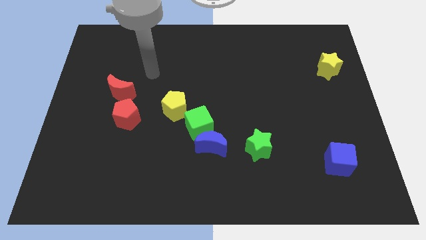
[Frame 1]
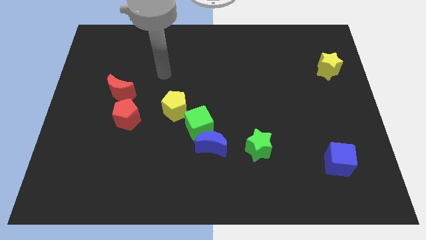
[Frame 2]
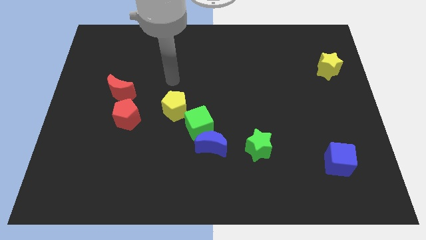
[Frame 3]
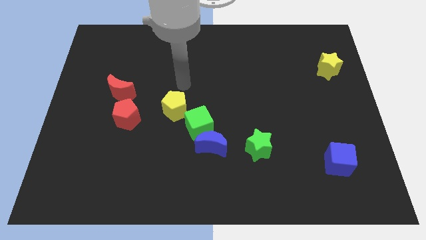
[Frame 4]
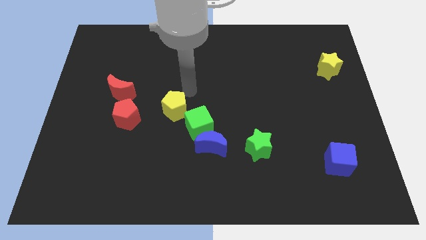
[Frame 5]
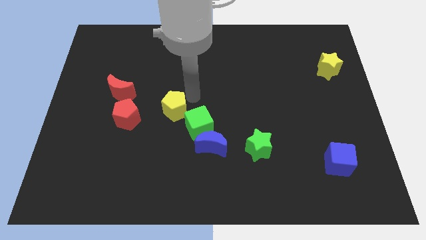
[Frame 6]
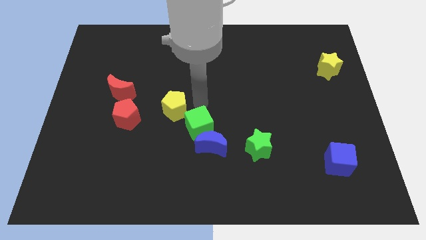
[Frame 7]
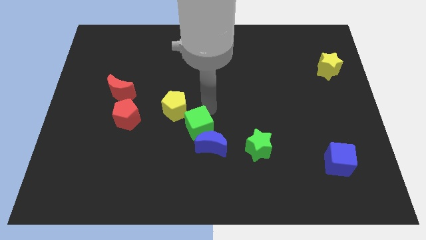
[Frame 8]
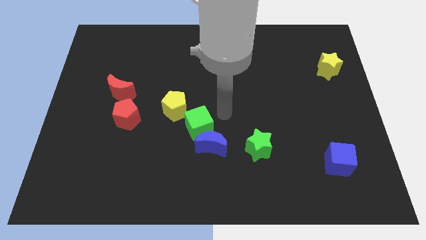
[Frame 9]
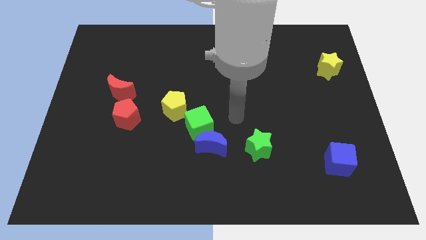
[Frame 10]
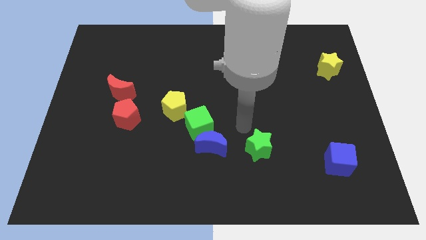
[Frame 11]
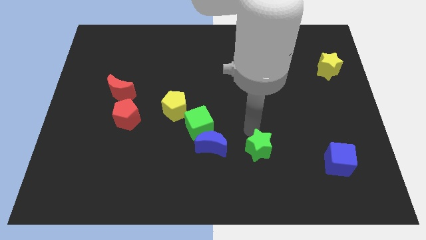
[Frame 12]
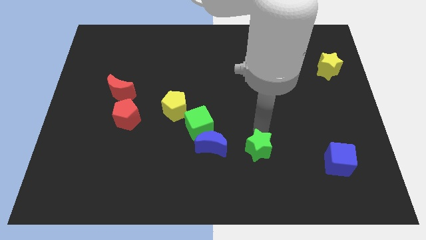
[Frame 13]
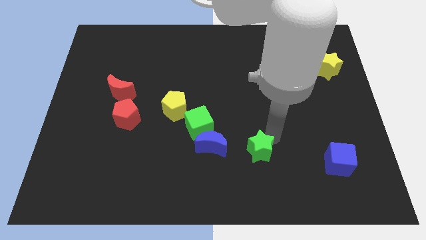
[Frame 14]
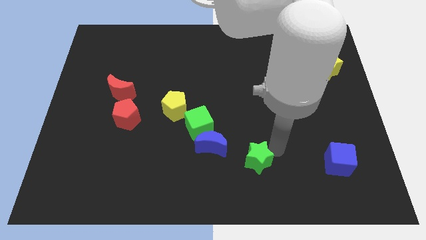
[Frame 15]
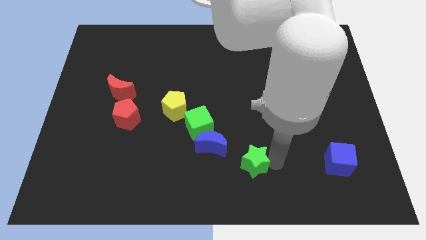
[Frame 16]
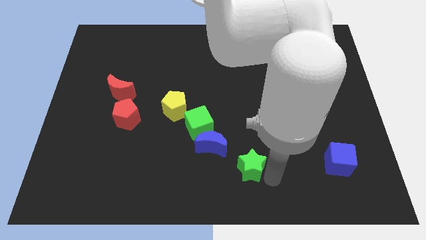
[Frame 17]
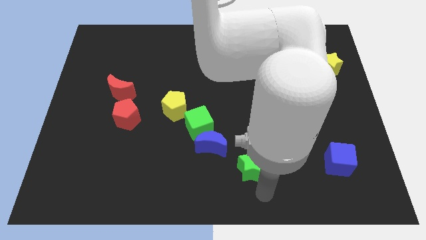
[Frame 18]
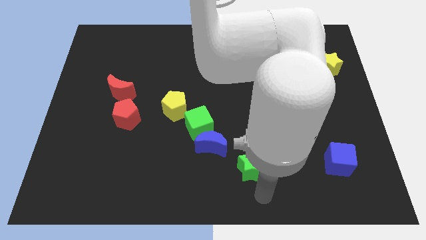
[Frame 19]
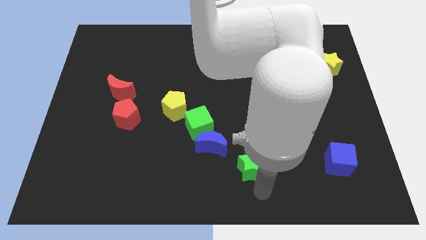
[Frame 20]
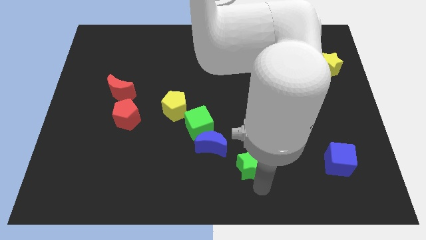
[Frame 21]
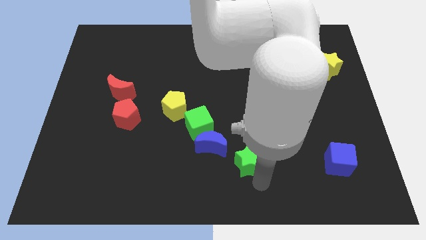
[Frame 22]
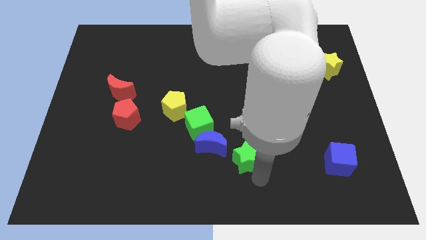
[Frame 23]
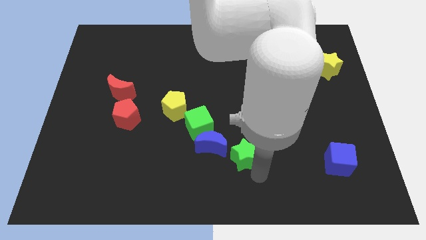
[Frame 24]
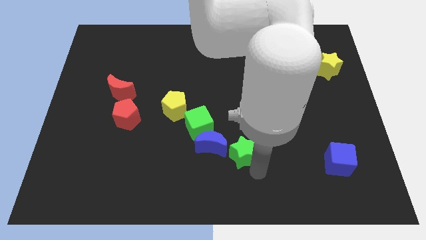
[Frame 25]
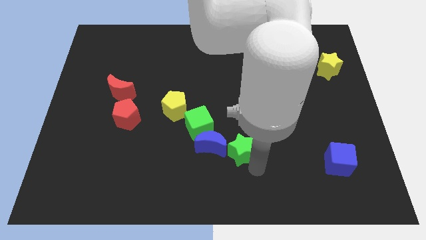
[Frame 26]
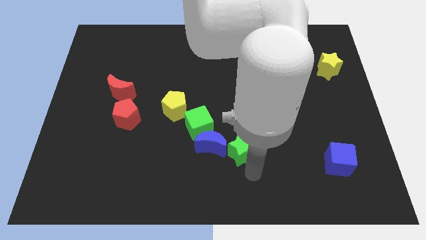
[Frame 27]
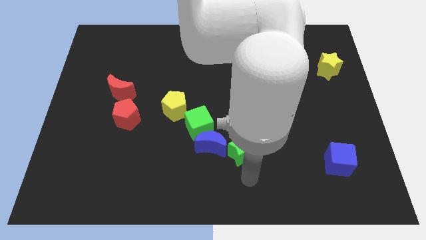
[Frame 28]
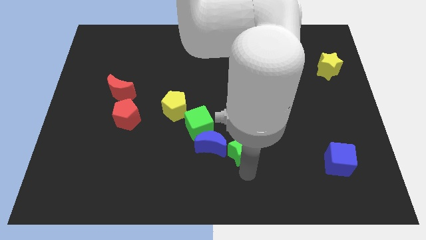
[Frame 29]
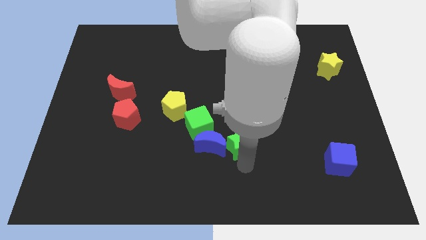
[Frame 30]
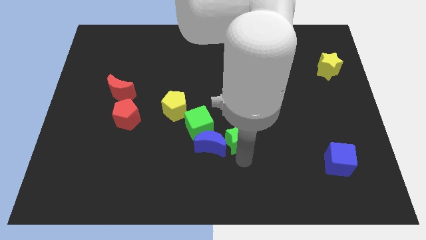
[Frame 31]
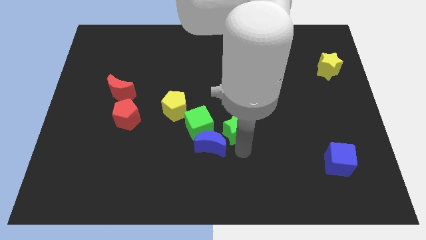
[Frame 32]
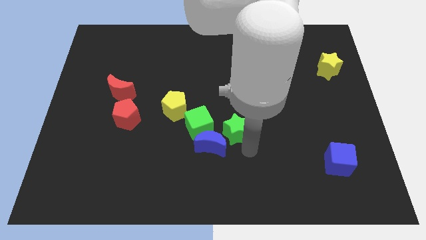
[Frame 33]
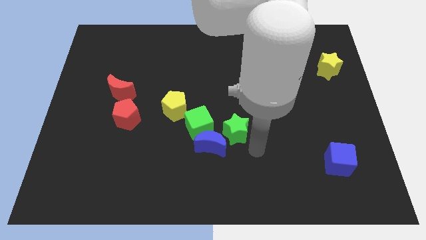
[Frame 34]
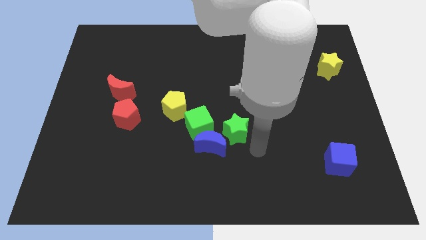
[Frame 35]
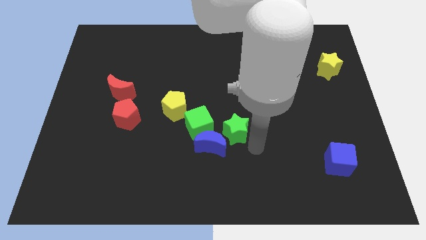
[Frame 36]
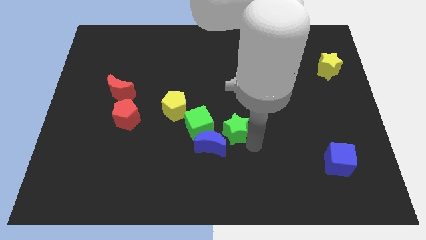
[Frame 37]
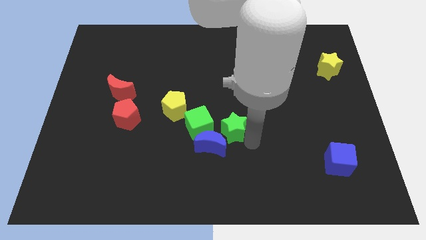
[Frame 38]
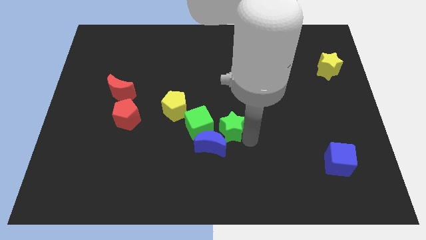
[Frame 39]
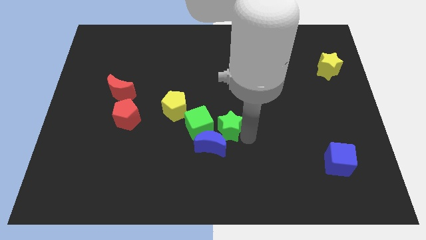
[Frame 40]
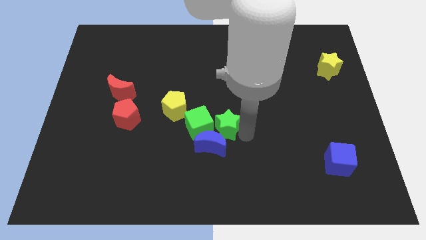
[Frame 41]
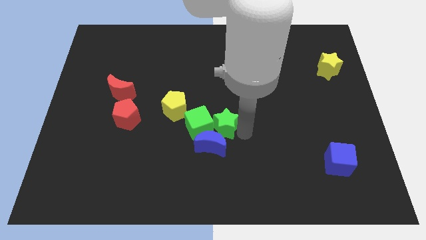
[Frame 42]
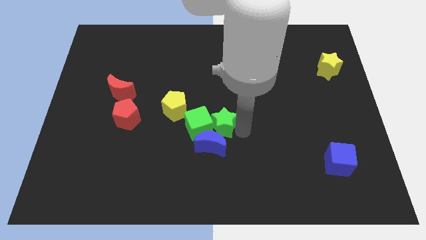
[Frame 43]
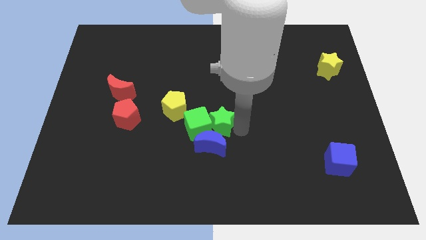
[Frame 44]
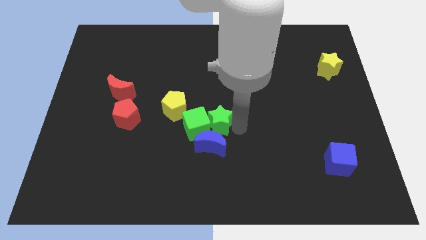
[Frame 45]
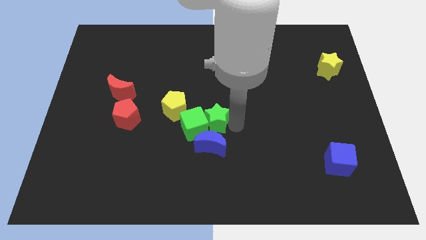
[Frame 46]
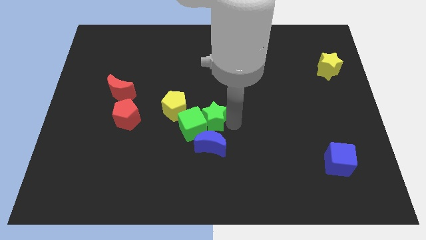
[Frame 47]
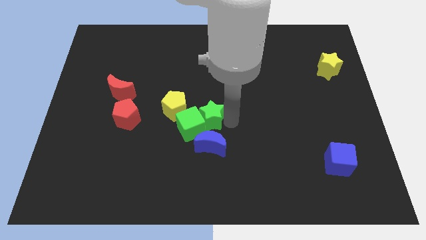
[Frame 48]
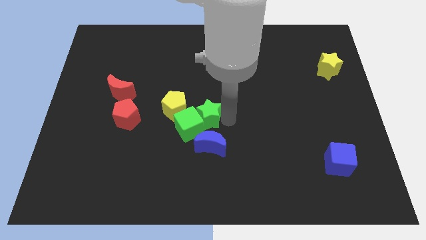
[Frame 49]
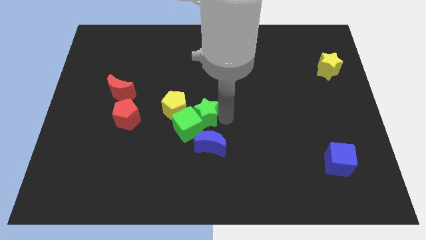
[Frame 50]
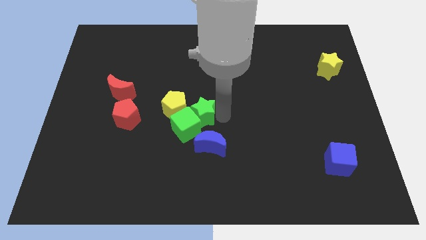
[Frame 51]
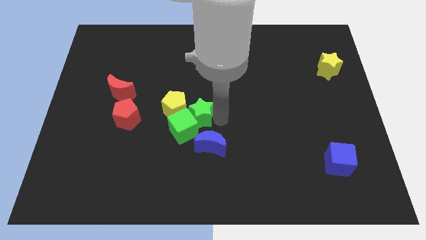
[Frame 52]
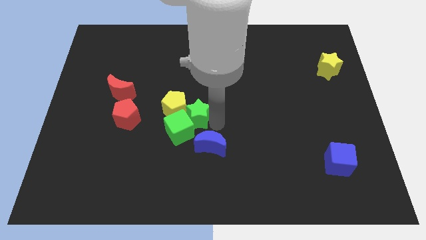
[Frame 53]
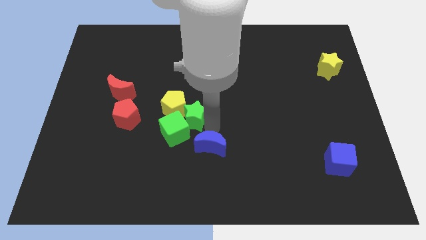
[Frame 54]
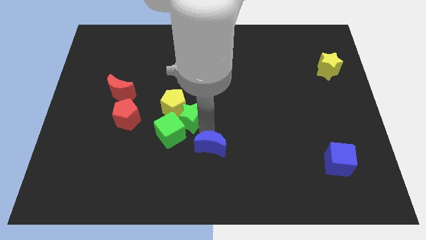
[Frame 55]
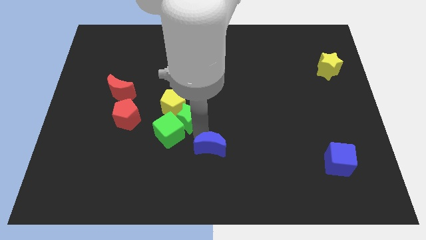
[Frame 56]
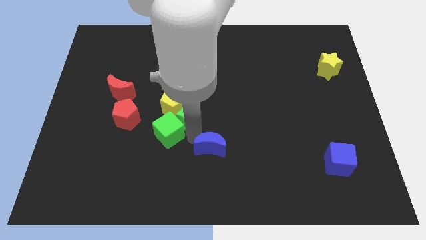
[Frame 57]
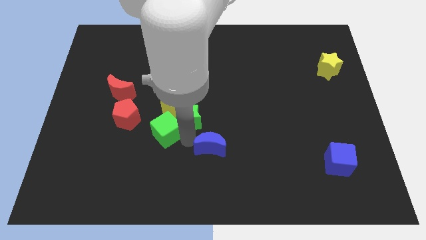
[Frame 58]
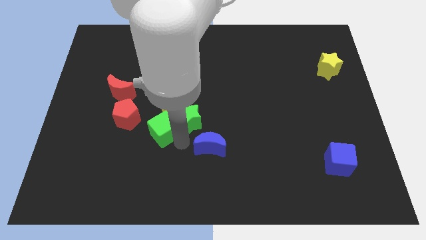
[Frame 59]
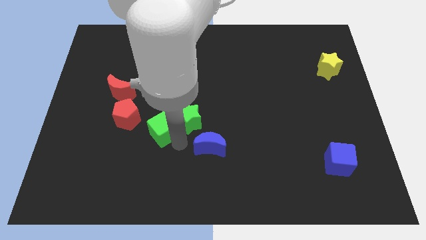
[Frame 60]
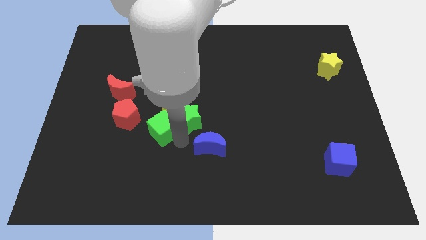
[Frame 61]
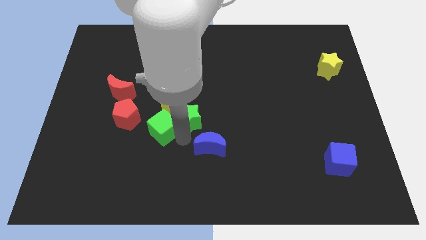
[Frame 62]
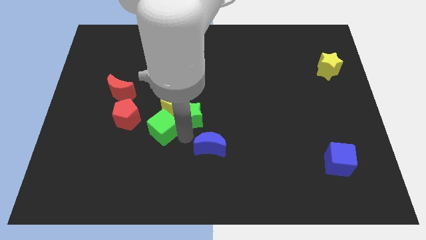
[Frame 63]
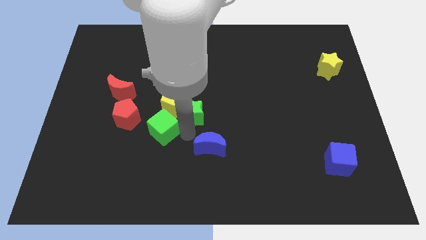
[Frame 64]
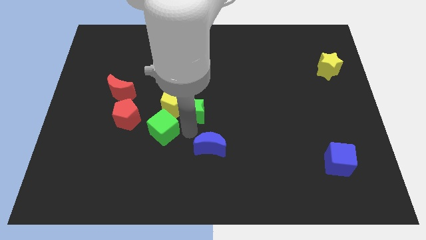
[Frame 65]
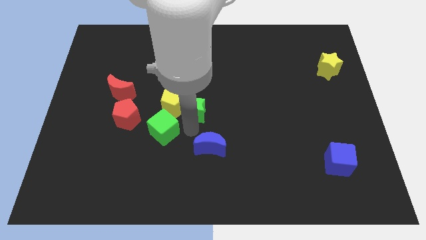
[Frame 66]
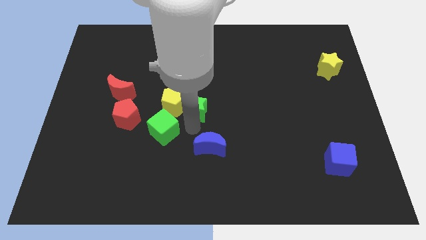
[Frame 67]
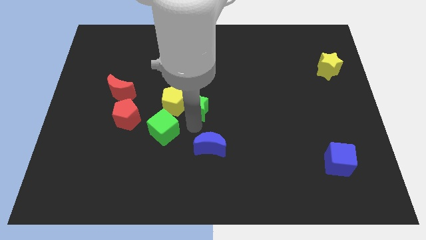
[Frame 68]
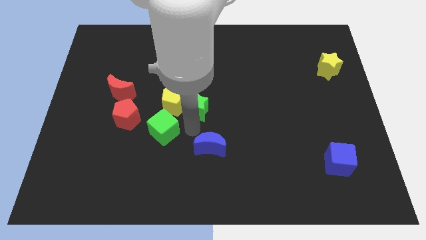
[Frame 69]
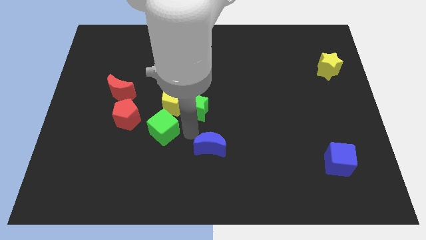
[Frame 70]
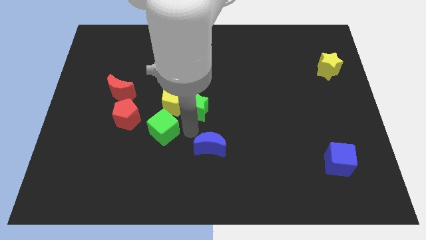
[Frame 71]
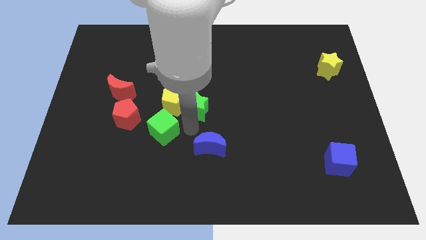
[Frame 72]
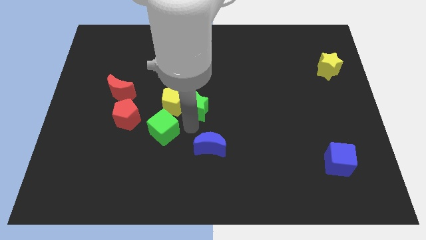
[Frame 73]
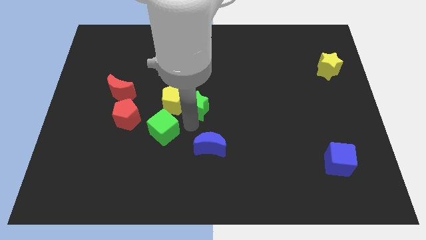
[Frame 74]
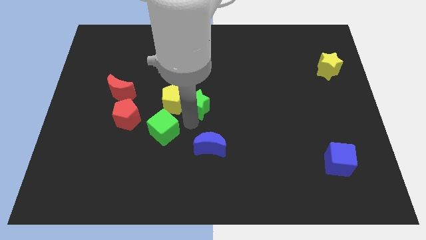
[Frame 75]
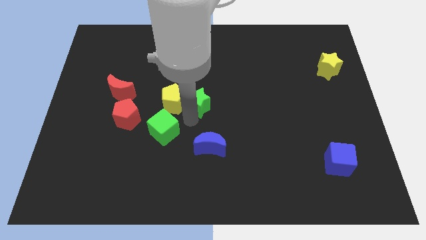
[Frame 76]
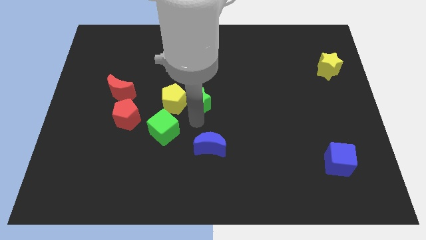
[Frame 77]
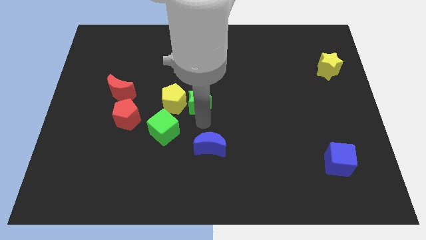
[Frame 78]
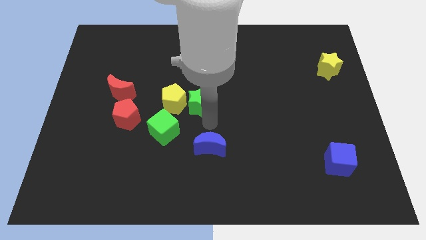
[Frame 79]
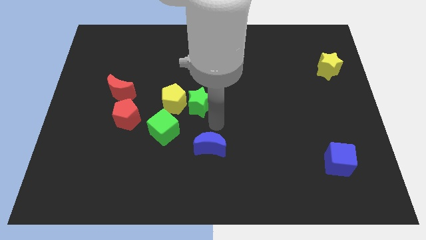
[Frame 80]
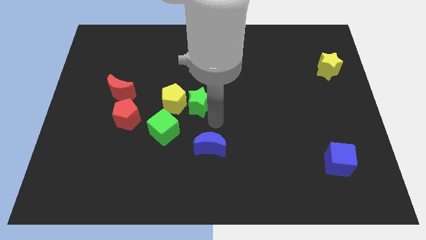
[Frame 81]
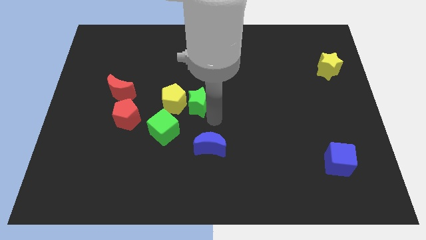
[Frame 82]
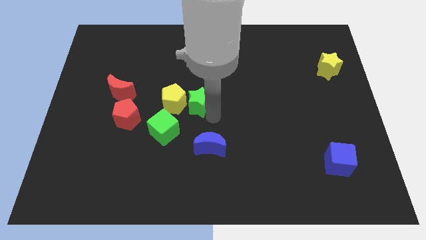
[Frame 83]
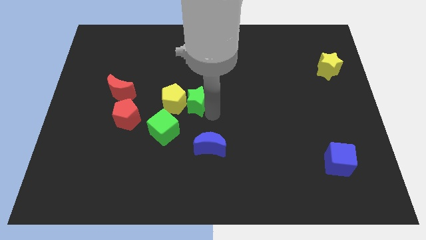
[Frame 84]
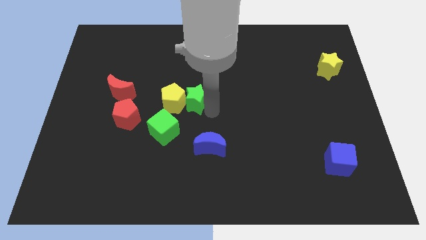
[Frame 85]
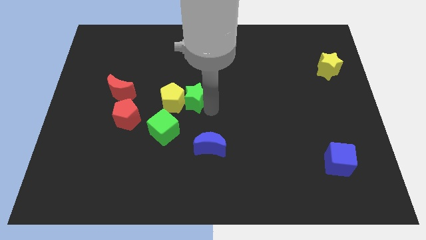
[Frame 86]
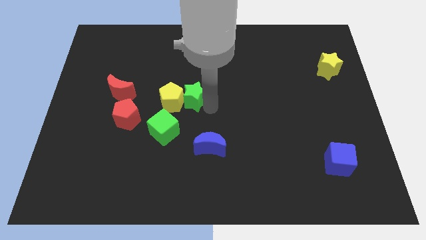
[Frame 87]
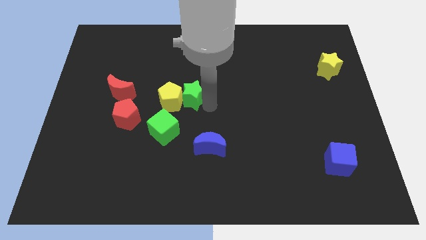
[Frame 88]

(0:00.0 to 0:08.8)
slide the green star up and then left
